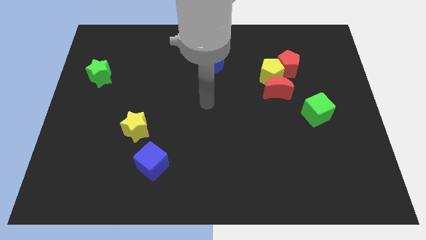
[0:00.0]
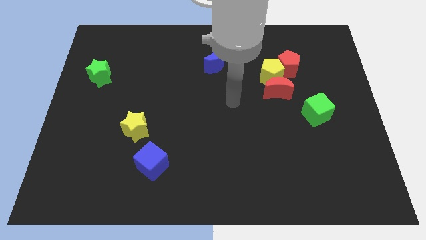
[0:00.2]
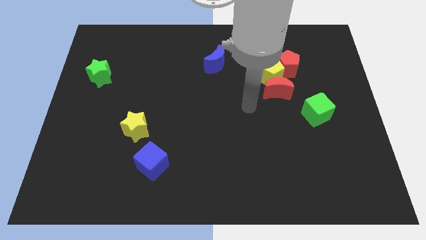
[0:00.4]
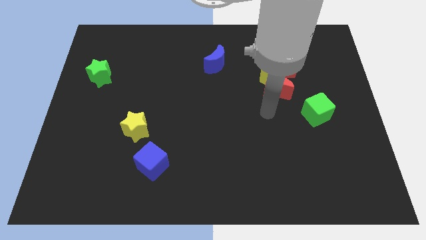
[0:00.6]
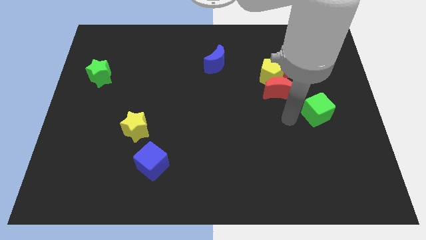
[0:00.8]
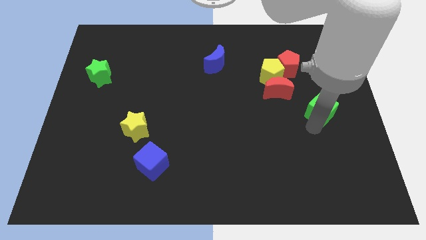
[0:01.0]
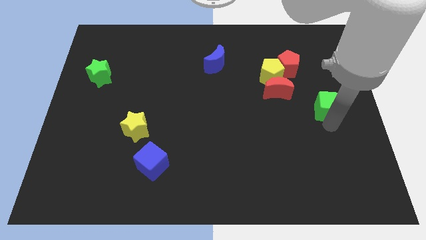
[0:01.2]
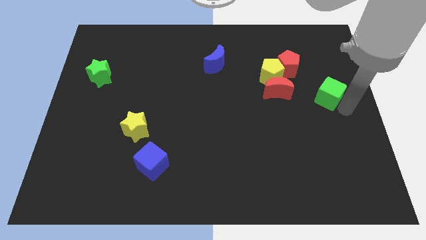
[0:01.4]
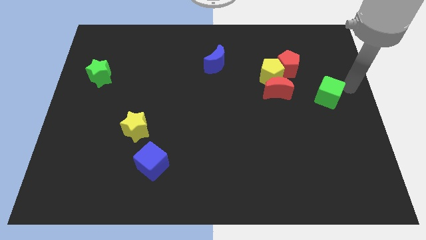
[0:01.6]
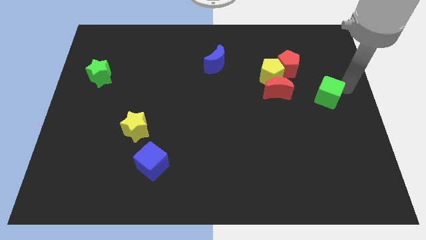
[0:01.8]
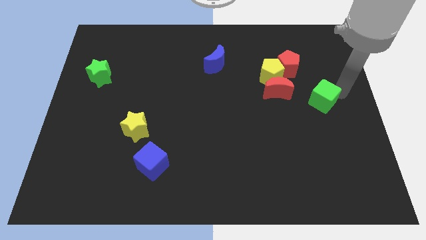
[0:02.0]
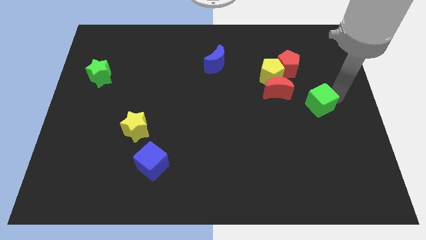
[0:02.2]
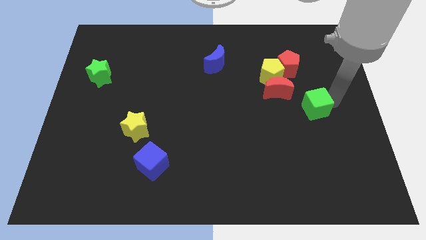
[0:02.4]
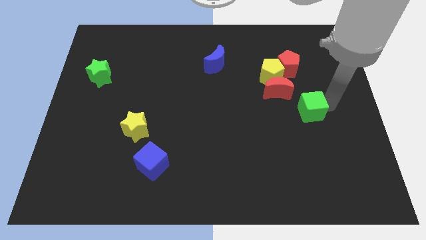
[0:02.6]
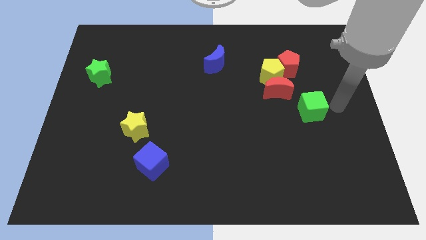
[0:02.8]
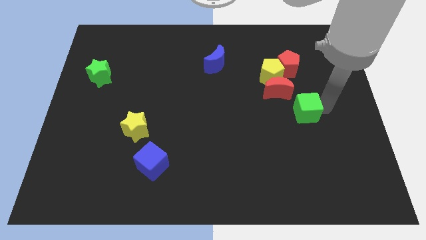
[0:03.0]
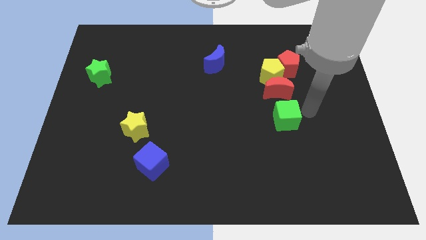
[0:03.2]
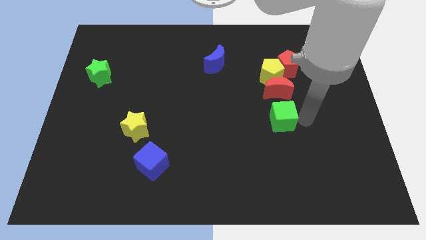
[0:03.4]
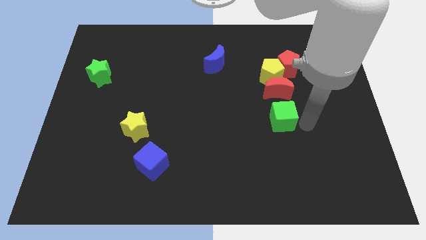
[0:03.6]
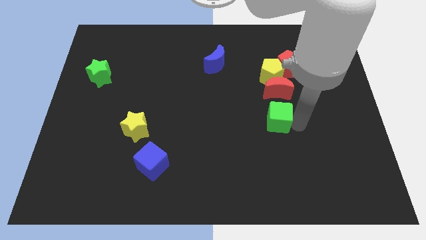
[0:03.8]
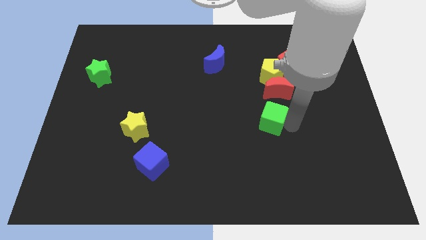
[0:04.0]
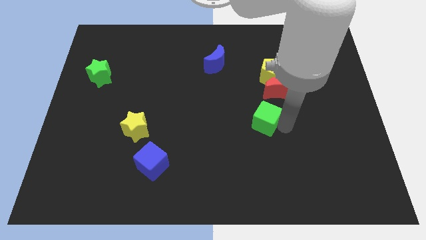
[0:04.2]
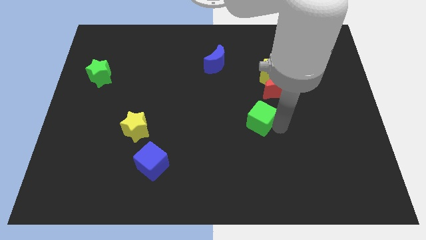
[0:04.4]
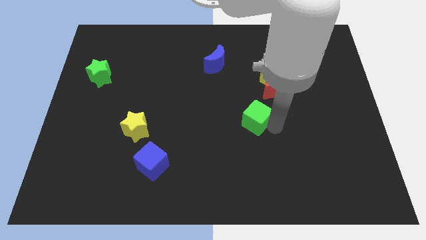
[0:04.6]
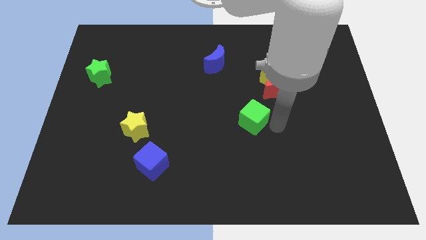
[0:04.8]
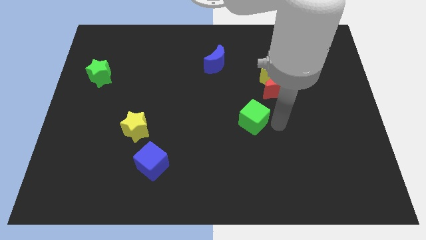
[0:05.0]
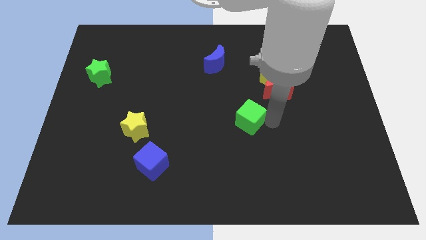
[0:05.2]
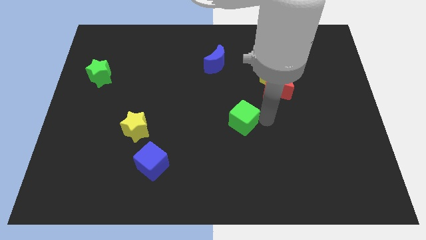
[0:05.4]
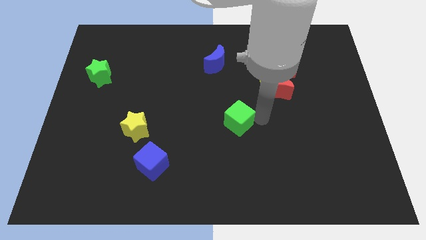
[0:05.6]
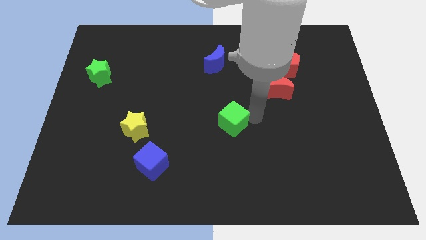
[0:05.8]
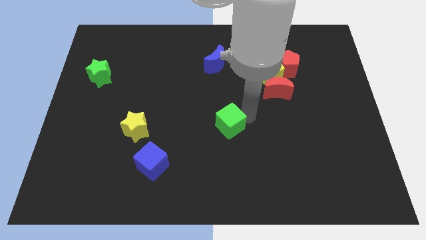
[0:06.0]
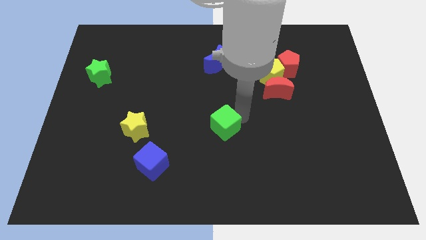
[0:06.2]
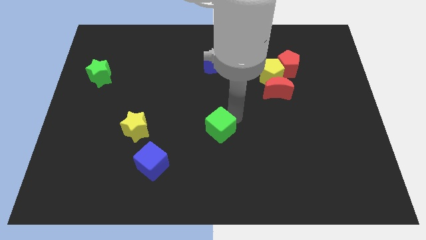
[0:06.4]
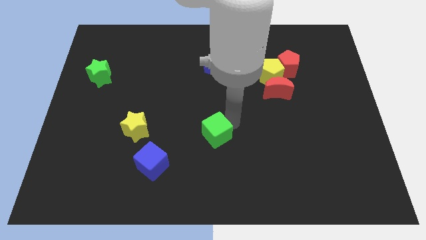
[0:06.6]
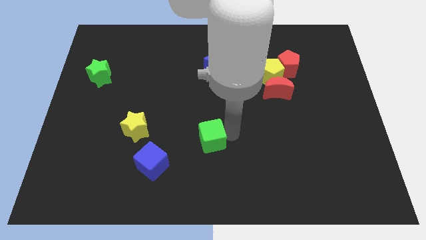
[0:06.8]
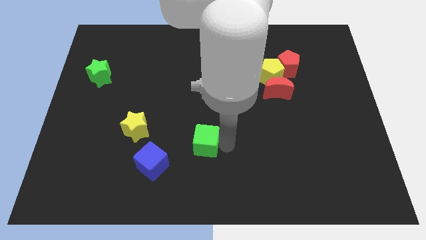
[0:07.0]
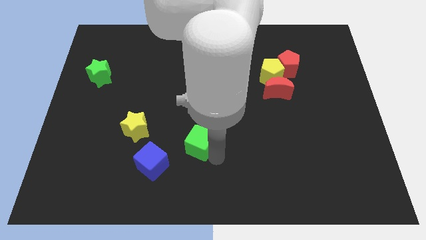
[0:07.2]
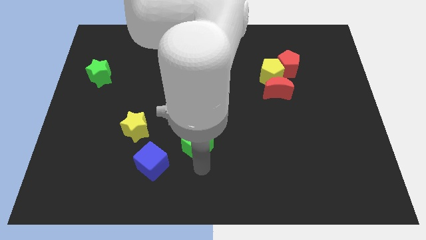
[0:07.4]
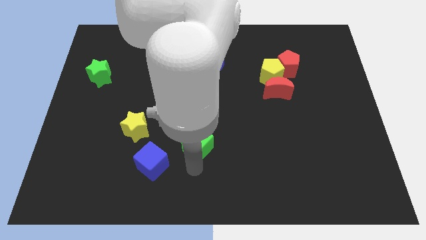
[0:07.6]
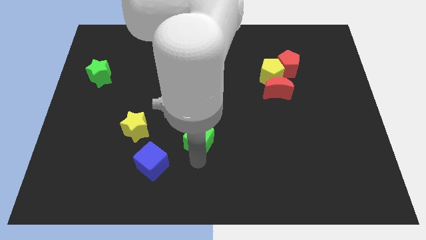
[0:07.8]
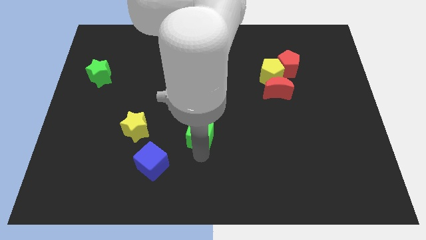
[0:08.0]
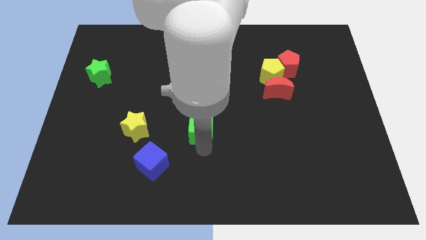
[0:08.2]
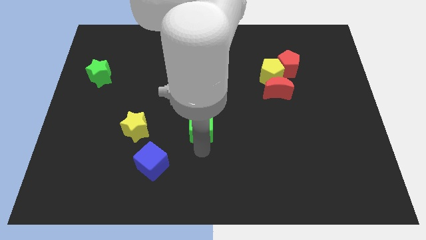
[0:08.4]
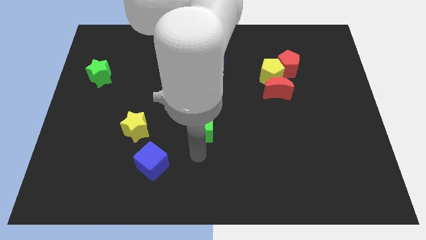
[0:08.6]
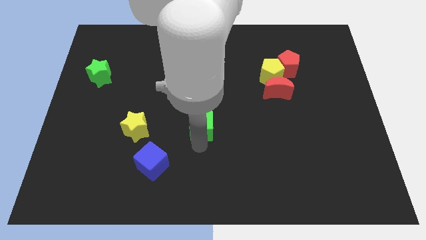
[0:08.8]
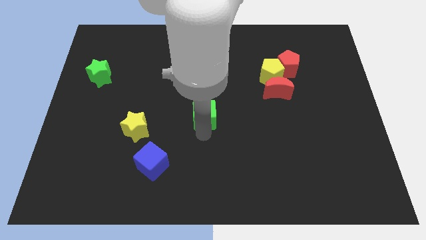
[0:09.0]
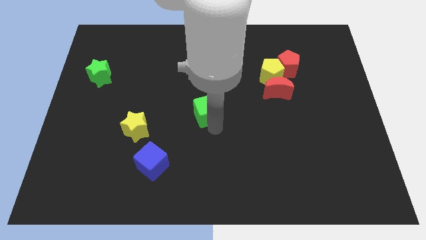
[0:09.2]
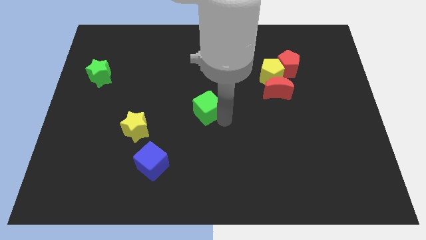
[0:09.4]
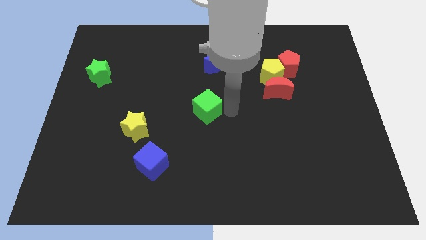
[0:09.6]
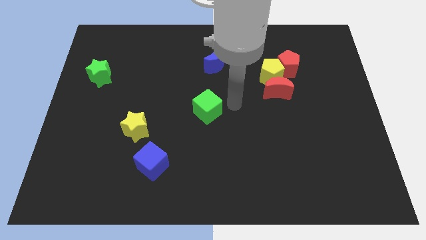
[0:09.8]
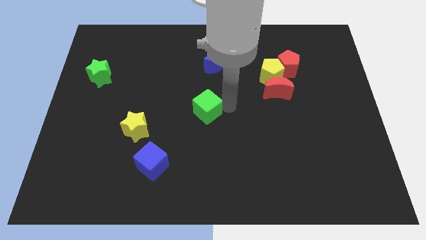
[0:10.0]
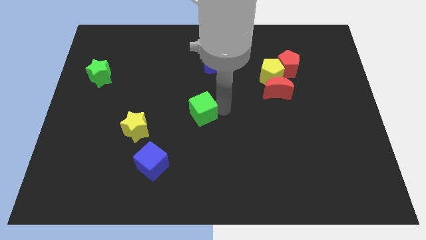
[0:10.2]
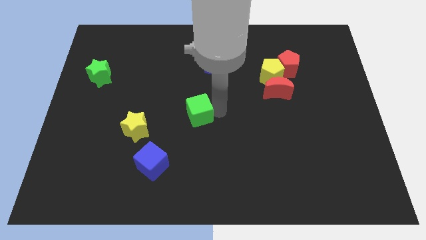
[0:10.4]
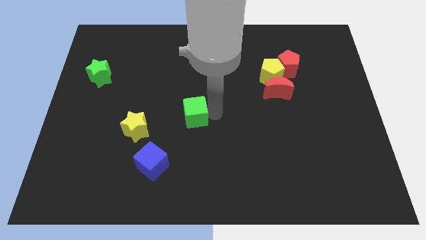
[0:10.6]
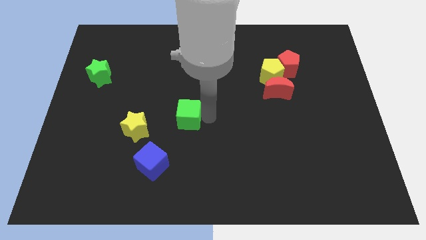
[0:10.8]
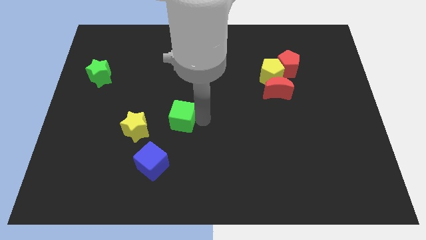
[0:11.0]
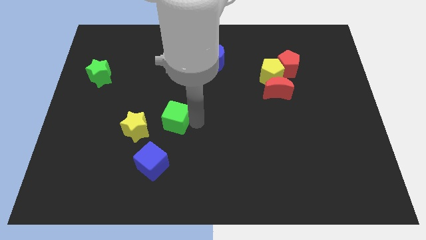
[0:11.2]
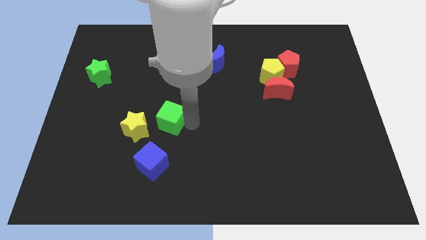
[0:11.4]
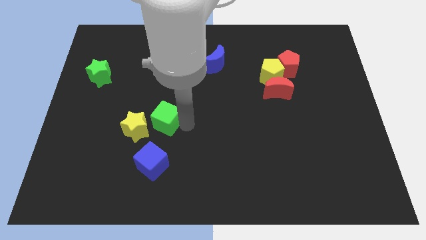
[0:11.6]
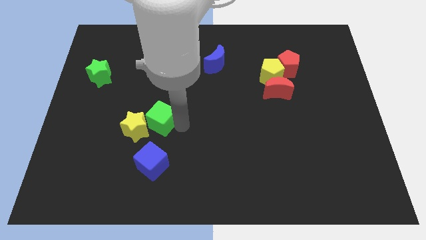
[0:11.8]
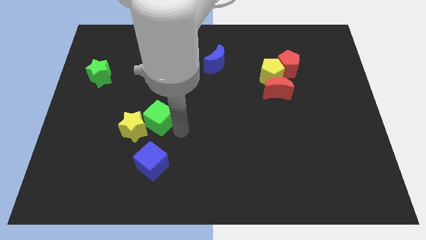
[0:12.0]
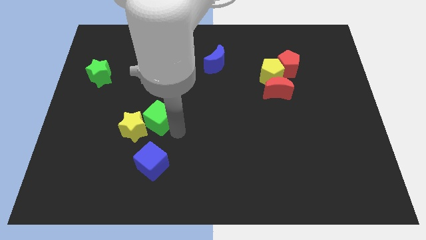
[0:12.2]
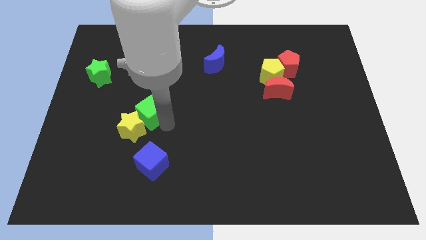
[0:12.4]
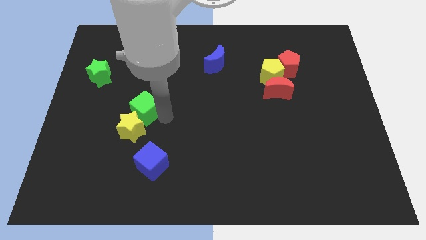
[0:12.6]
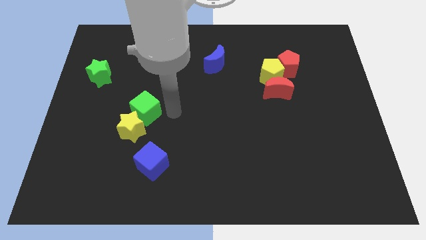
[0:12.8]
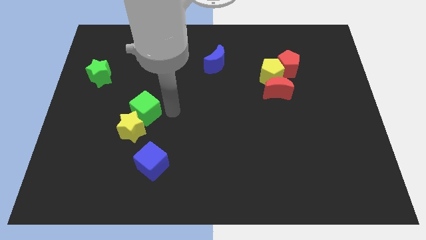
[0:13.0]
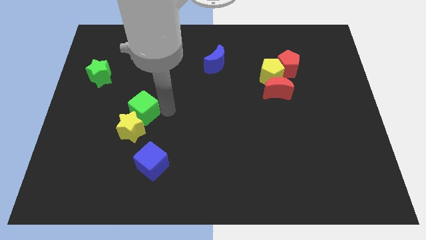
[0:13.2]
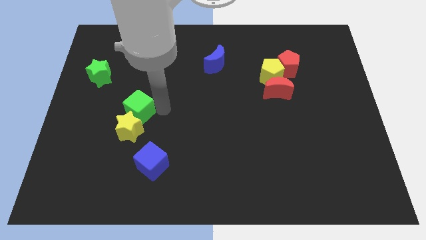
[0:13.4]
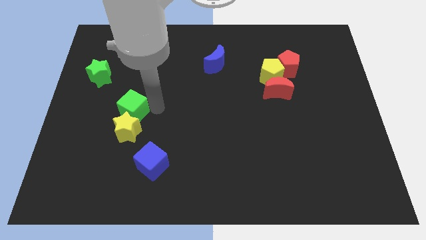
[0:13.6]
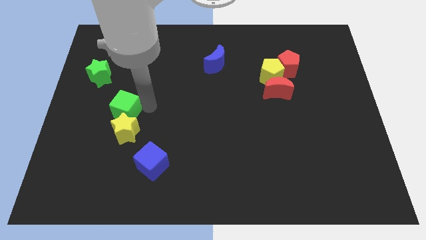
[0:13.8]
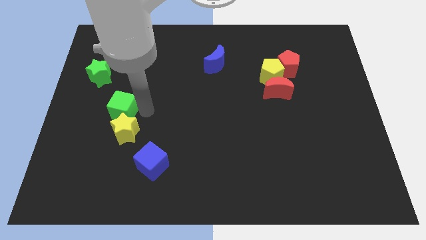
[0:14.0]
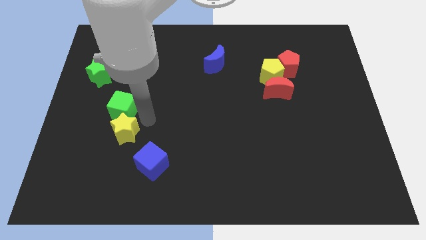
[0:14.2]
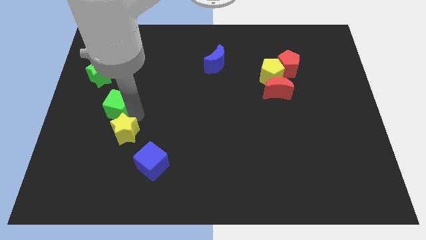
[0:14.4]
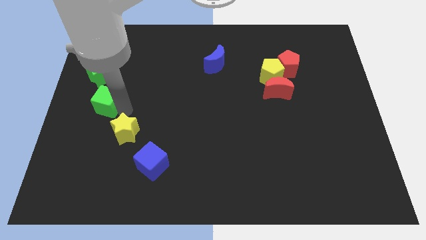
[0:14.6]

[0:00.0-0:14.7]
push the green cube to the left side
